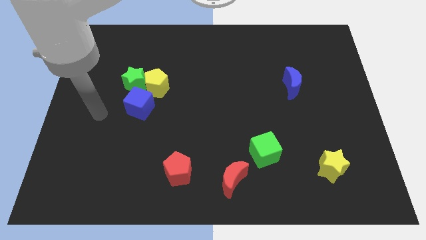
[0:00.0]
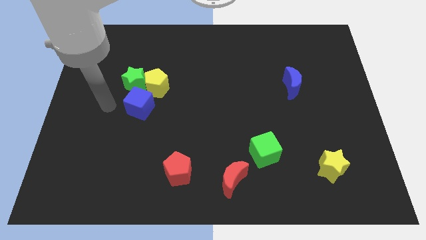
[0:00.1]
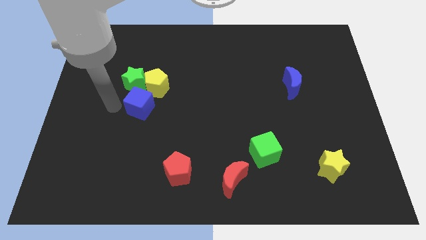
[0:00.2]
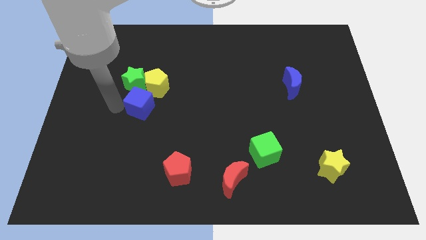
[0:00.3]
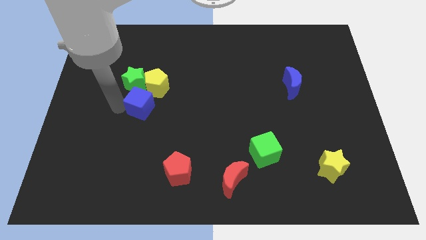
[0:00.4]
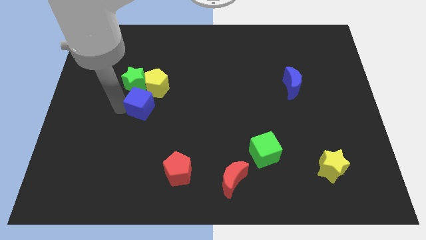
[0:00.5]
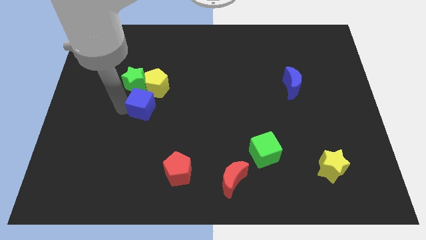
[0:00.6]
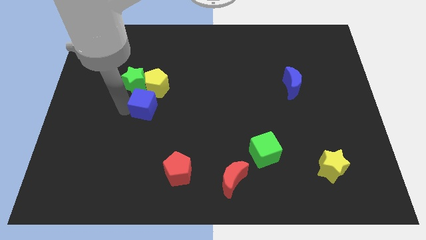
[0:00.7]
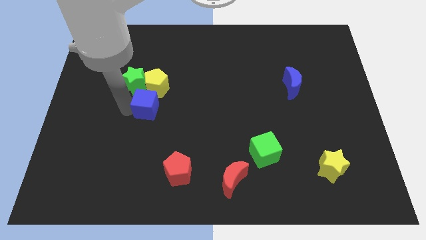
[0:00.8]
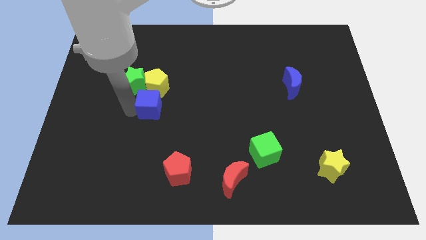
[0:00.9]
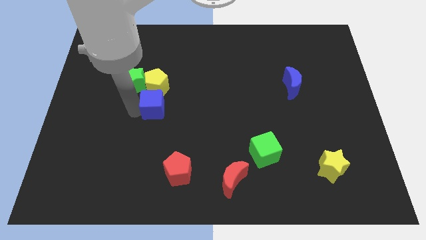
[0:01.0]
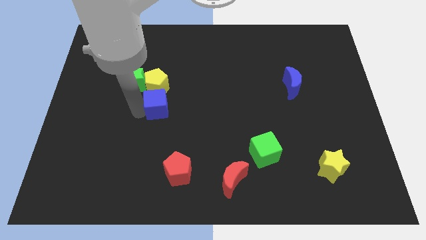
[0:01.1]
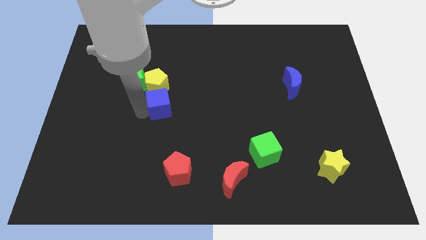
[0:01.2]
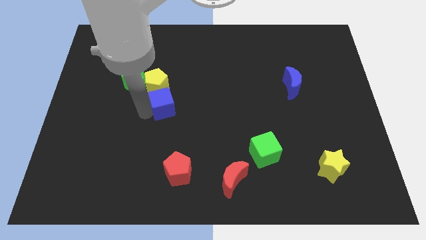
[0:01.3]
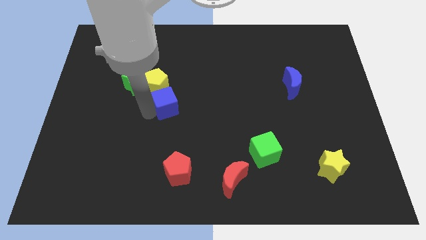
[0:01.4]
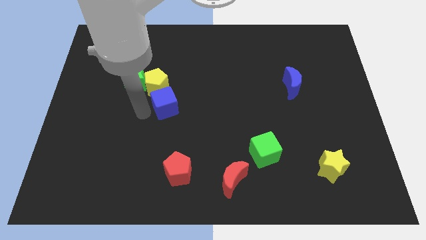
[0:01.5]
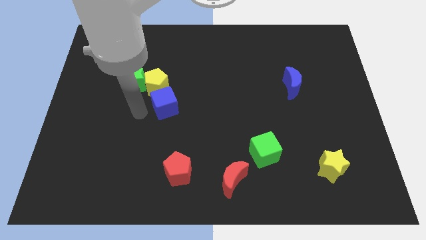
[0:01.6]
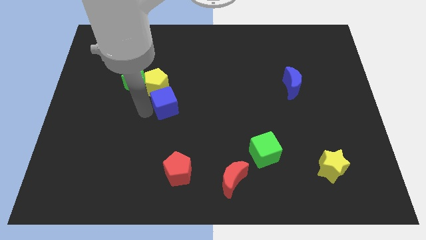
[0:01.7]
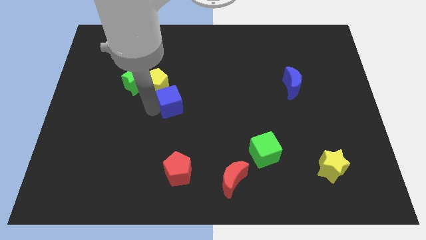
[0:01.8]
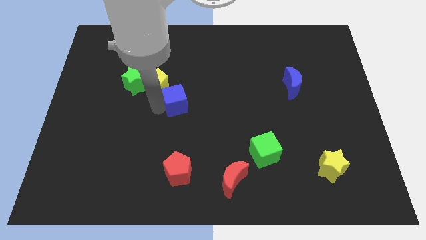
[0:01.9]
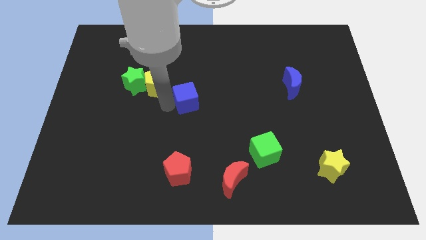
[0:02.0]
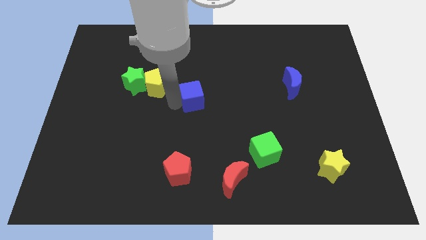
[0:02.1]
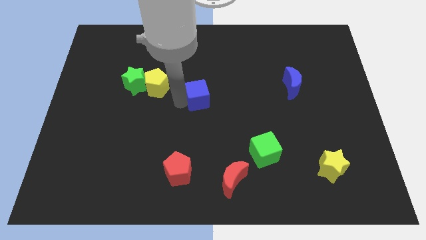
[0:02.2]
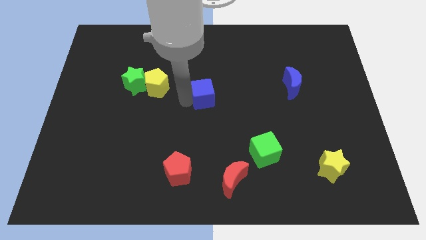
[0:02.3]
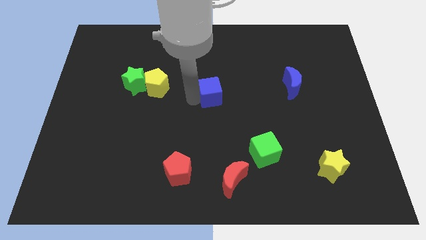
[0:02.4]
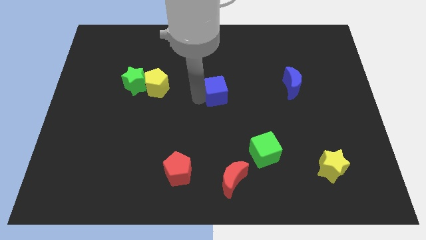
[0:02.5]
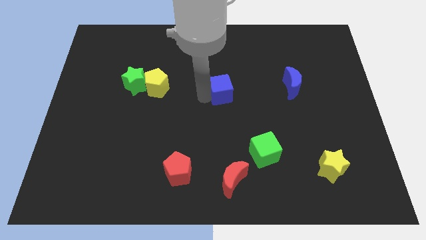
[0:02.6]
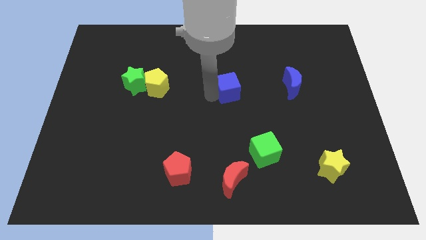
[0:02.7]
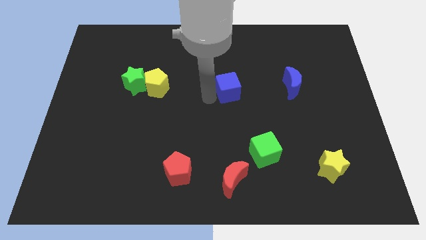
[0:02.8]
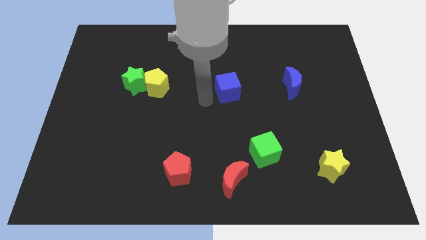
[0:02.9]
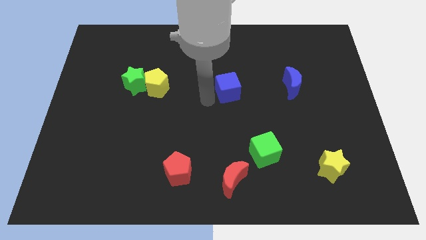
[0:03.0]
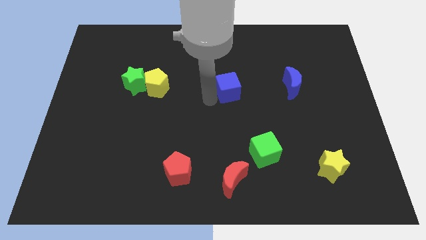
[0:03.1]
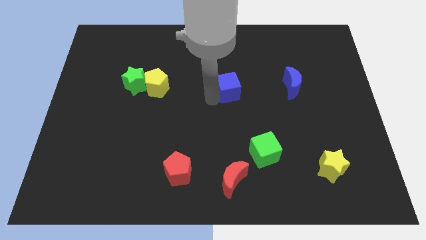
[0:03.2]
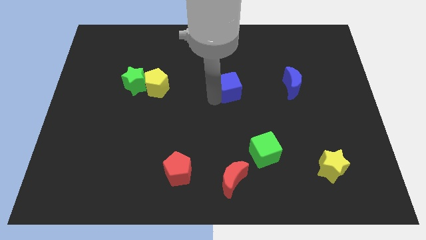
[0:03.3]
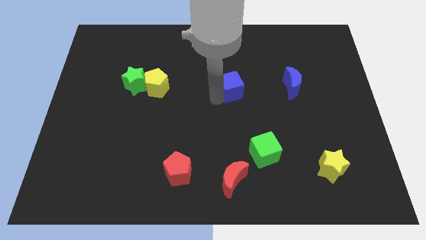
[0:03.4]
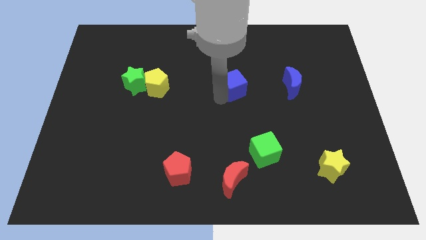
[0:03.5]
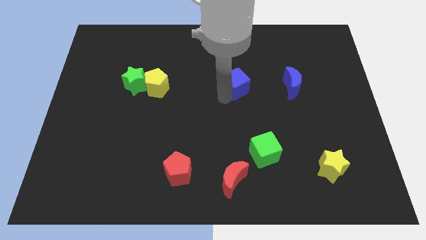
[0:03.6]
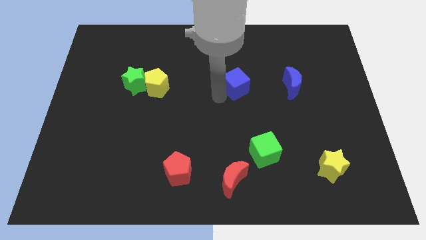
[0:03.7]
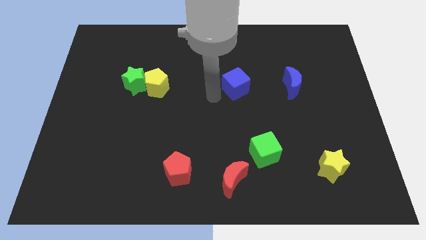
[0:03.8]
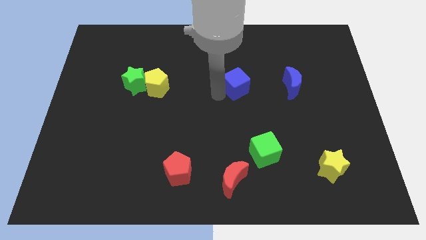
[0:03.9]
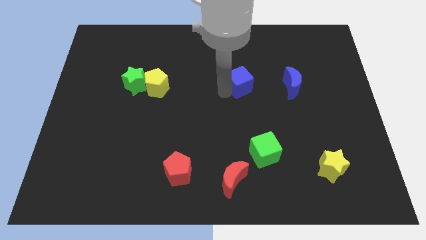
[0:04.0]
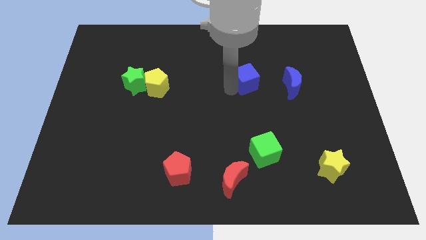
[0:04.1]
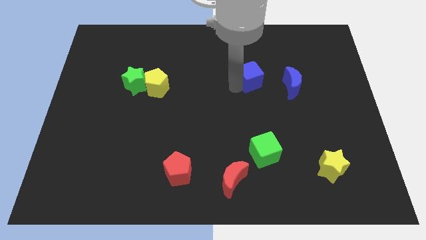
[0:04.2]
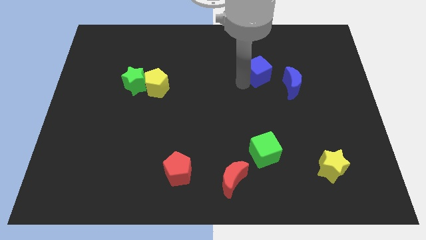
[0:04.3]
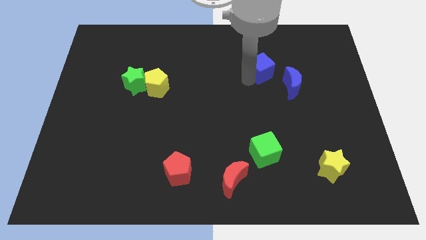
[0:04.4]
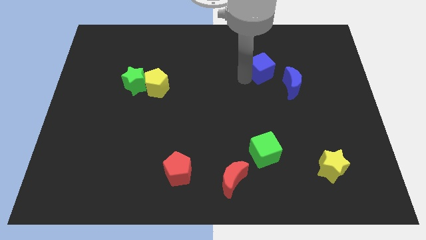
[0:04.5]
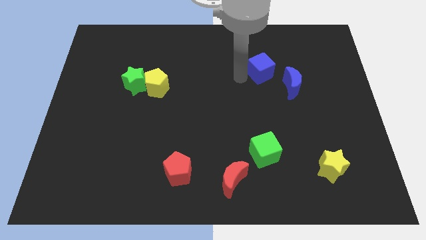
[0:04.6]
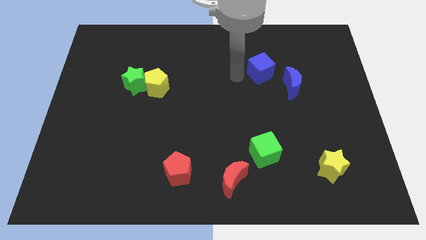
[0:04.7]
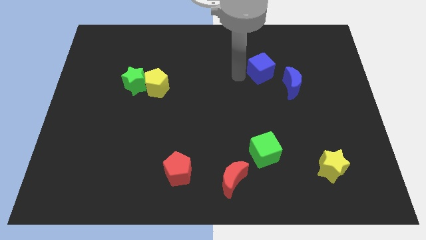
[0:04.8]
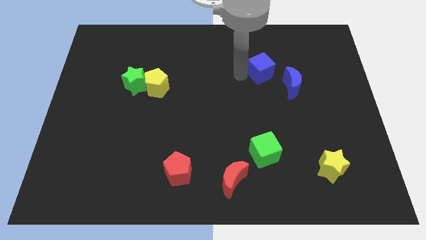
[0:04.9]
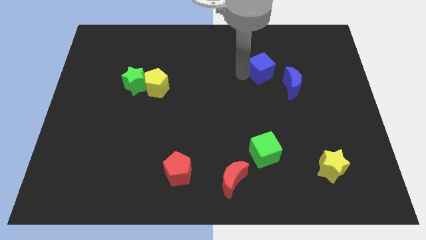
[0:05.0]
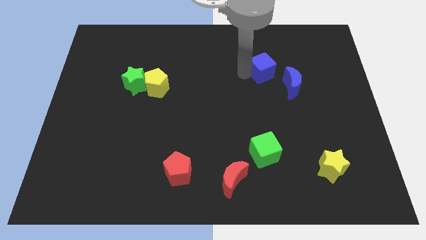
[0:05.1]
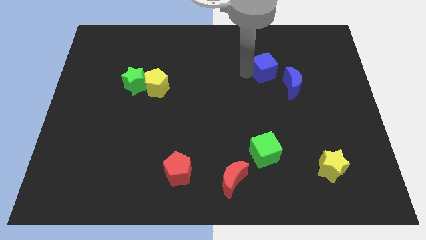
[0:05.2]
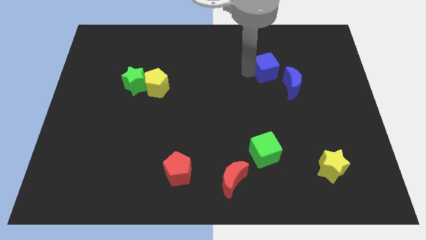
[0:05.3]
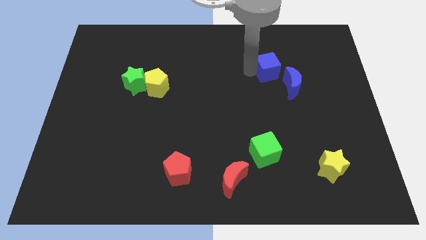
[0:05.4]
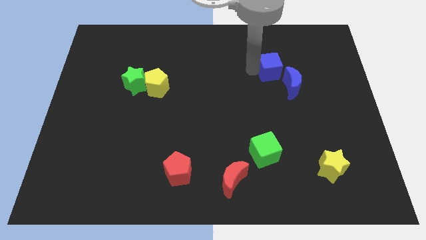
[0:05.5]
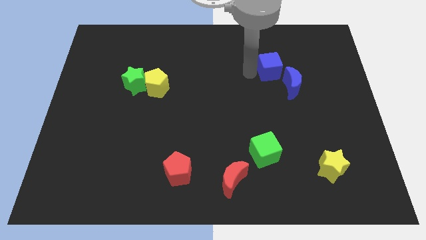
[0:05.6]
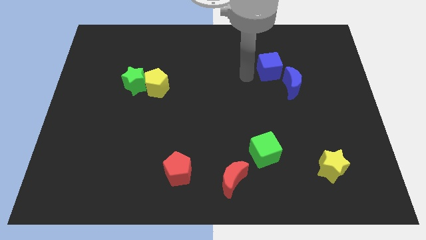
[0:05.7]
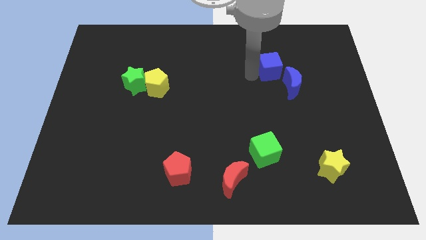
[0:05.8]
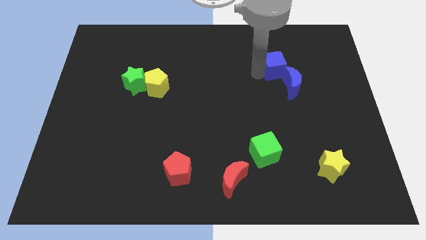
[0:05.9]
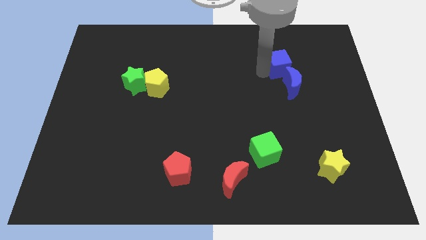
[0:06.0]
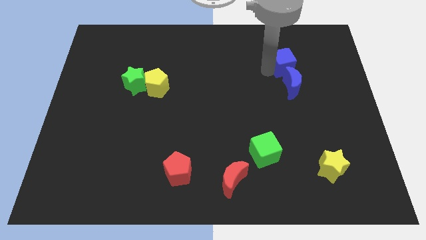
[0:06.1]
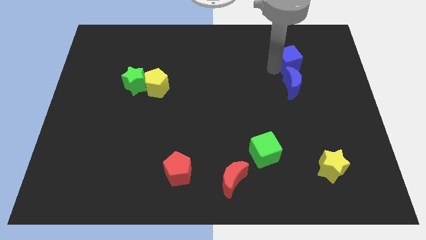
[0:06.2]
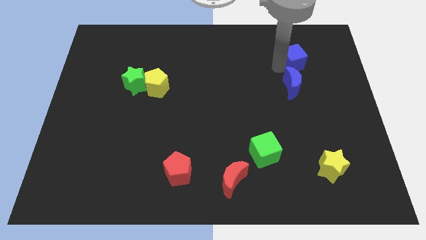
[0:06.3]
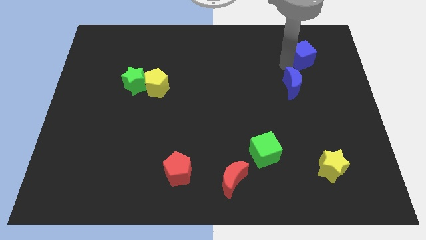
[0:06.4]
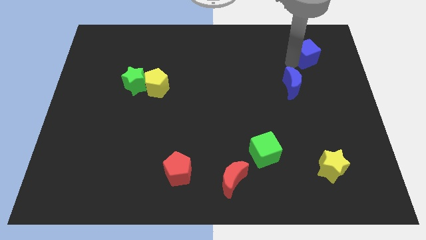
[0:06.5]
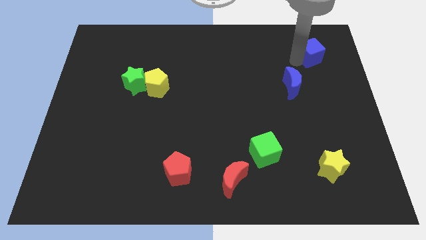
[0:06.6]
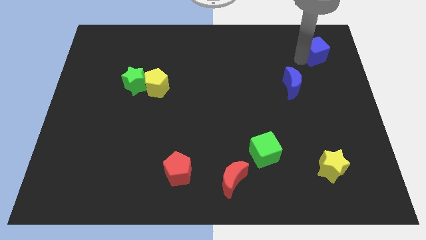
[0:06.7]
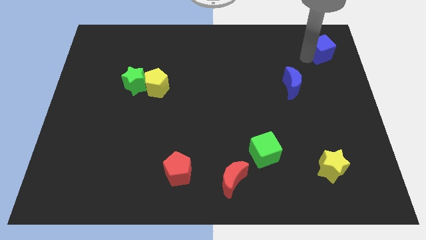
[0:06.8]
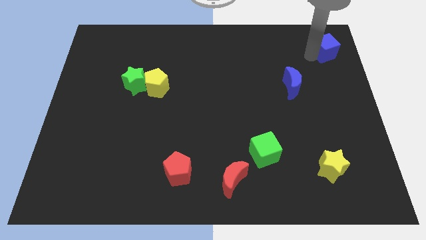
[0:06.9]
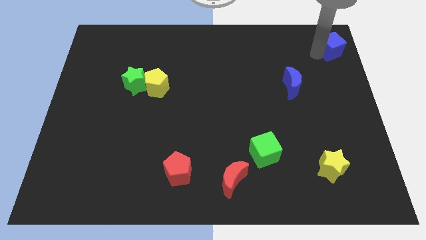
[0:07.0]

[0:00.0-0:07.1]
move the blue cube to the top right
